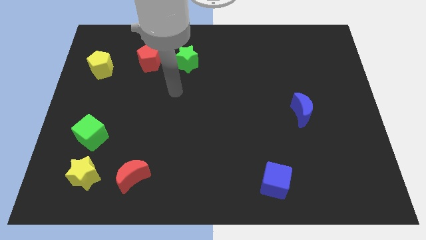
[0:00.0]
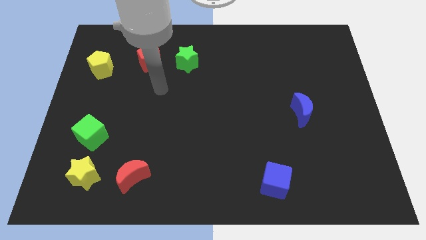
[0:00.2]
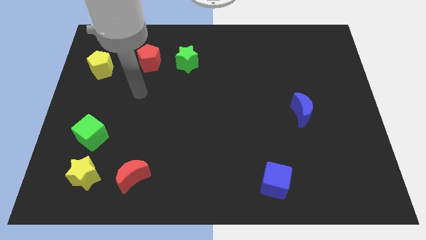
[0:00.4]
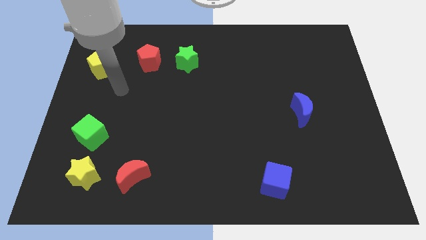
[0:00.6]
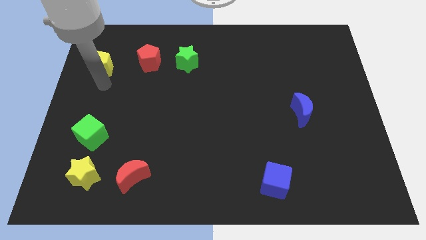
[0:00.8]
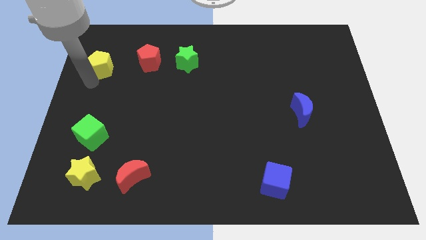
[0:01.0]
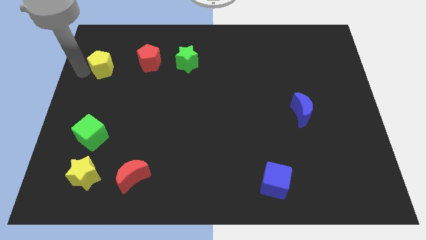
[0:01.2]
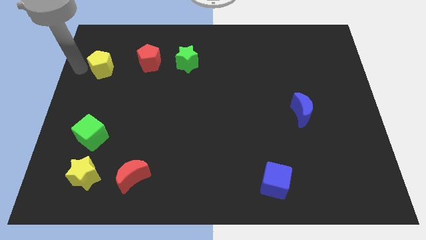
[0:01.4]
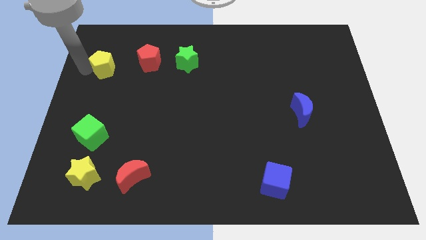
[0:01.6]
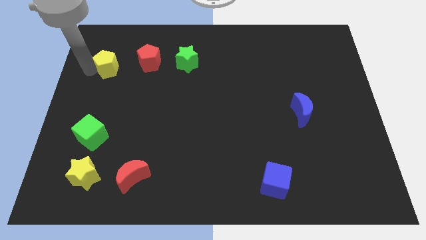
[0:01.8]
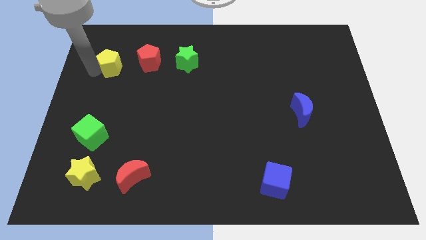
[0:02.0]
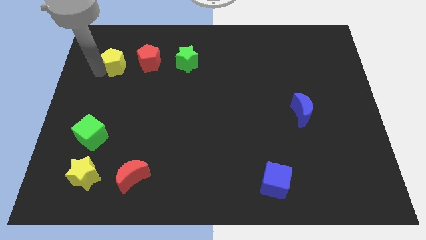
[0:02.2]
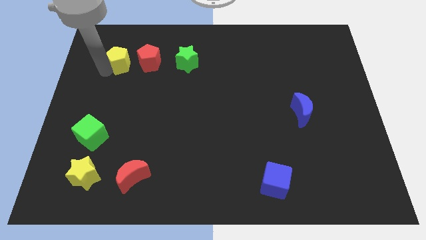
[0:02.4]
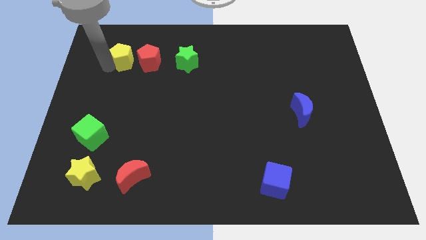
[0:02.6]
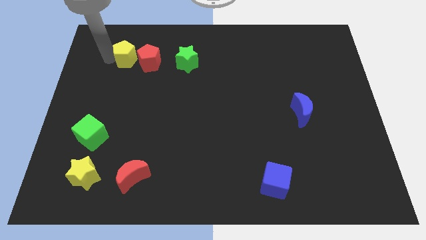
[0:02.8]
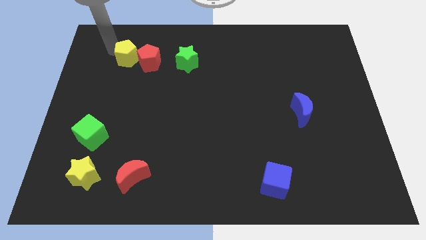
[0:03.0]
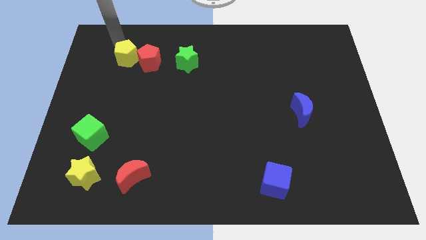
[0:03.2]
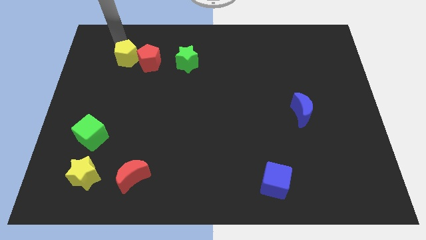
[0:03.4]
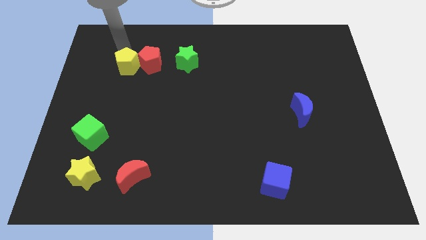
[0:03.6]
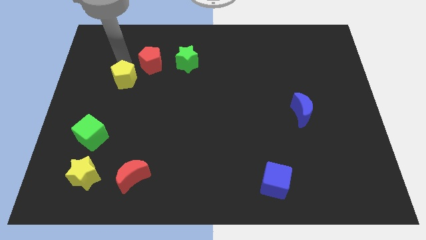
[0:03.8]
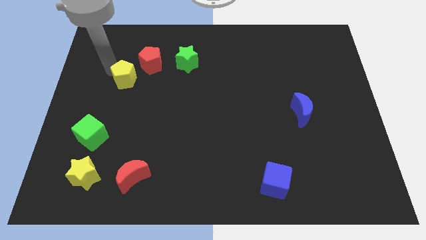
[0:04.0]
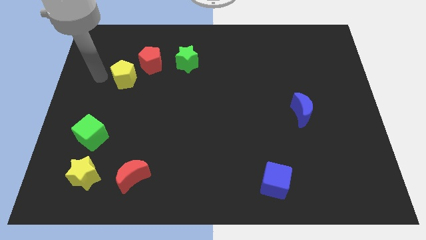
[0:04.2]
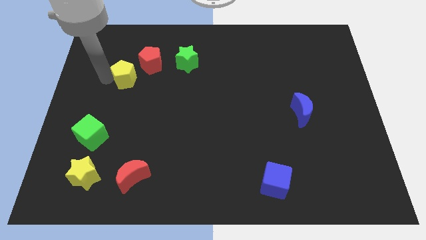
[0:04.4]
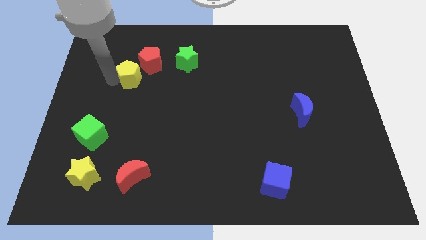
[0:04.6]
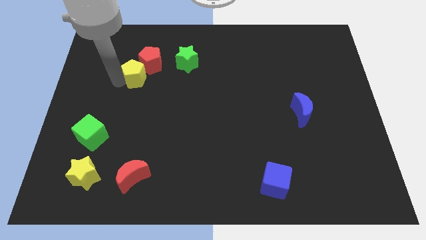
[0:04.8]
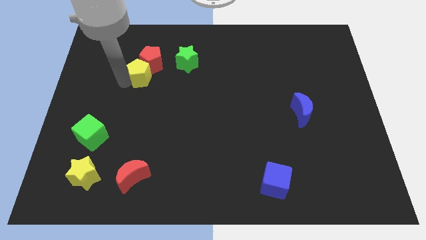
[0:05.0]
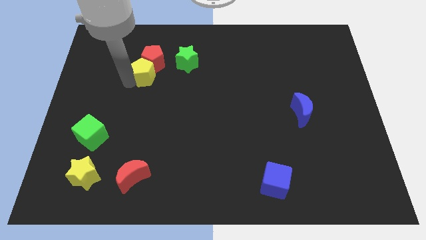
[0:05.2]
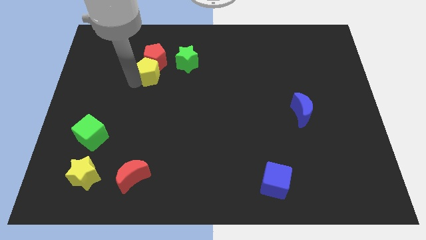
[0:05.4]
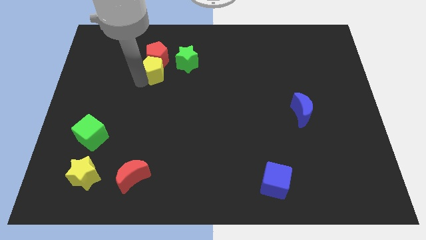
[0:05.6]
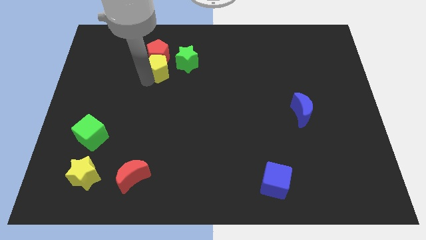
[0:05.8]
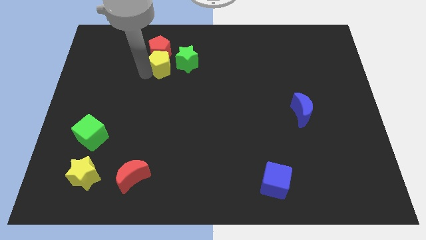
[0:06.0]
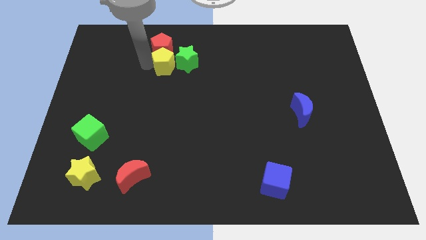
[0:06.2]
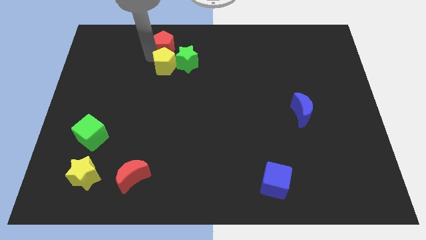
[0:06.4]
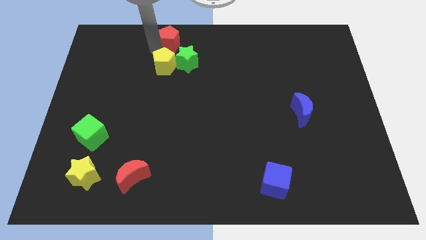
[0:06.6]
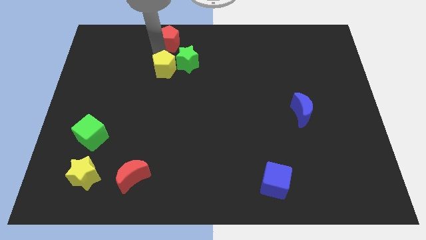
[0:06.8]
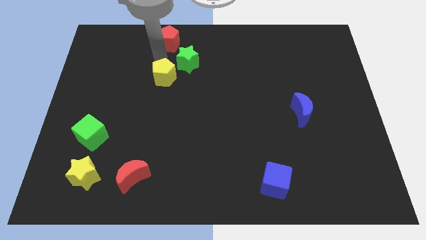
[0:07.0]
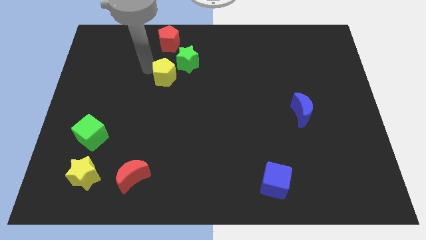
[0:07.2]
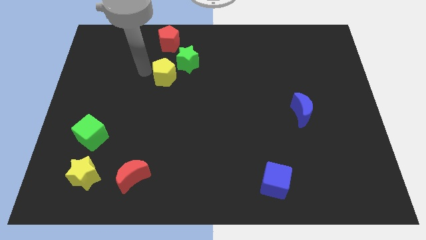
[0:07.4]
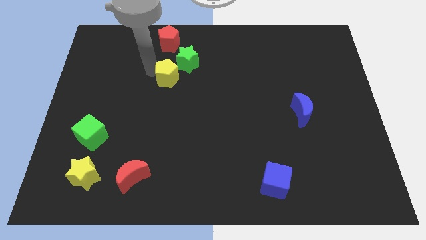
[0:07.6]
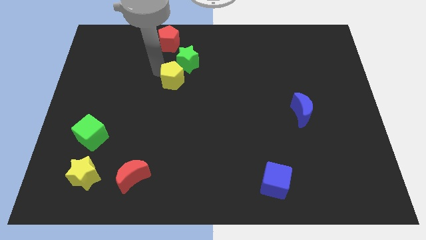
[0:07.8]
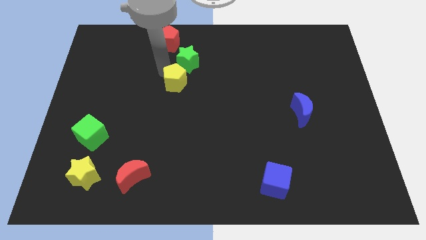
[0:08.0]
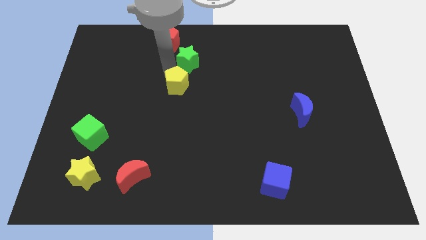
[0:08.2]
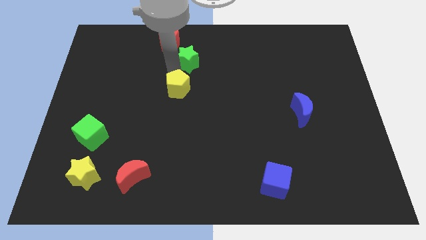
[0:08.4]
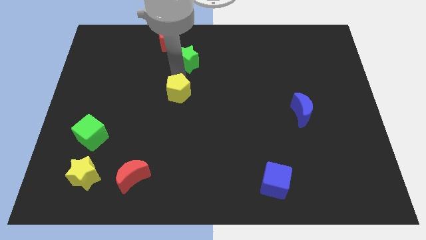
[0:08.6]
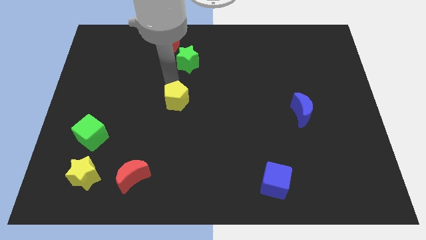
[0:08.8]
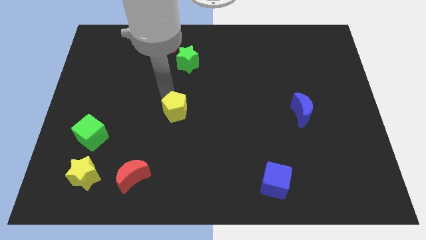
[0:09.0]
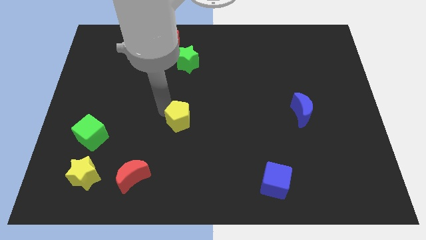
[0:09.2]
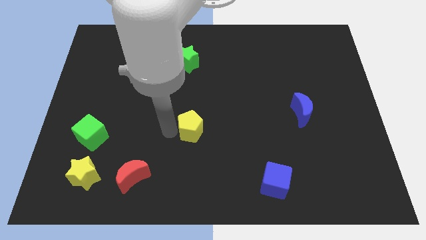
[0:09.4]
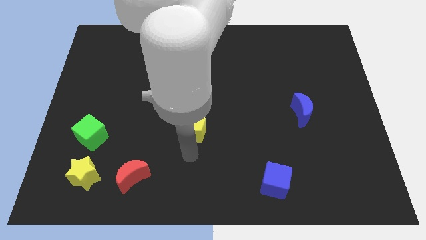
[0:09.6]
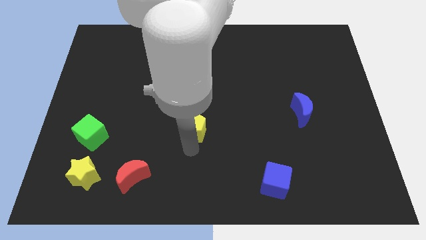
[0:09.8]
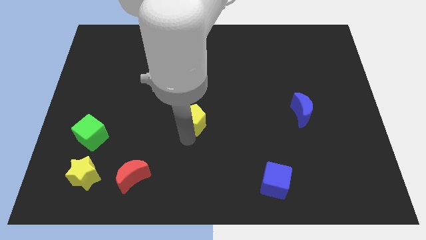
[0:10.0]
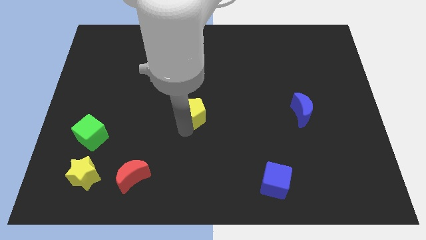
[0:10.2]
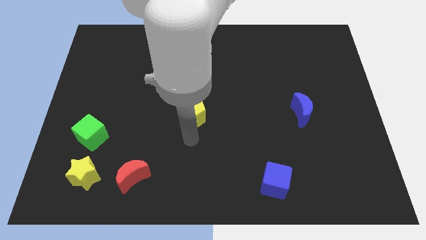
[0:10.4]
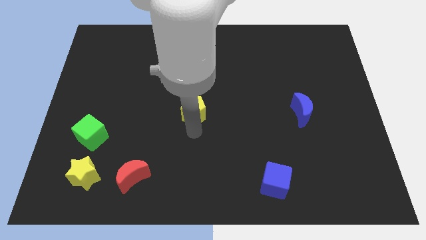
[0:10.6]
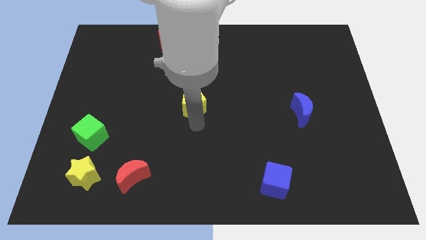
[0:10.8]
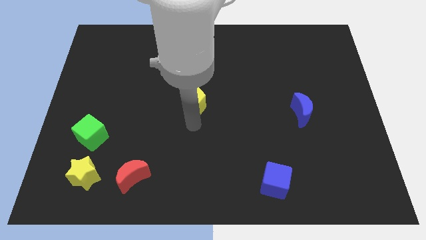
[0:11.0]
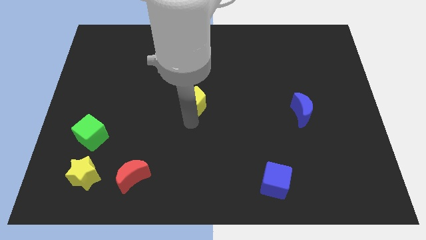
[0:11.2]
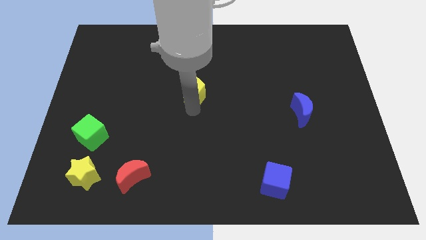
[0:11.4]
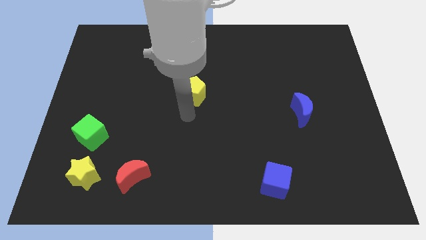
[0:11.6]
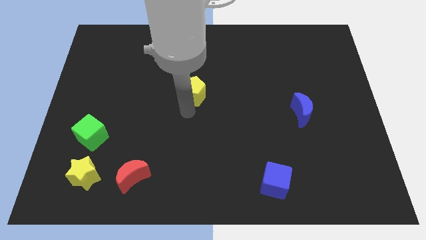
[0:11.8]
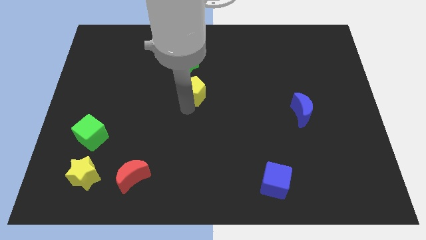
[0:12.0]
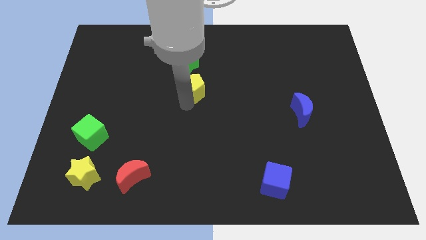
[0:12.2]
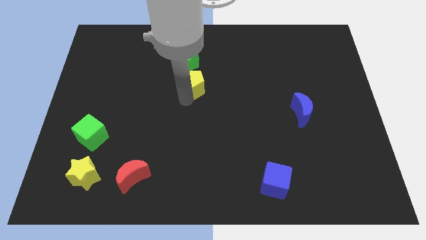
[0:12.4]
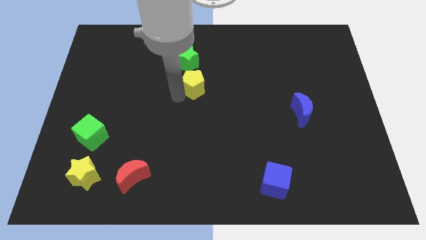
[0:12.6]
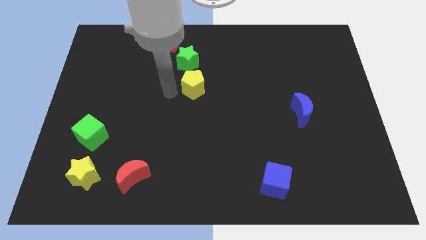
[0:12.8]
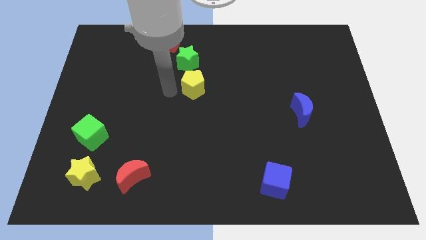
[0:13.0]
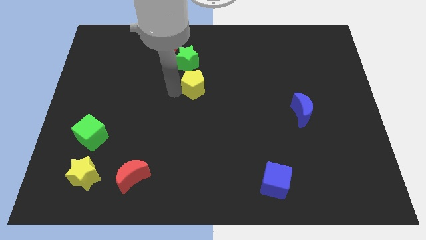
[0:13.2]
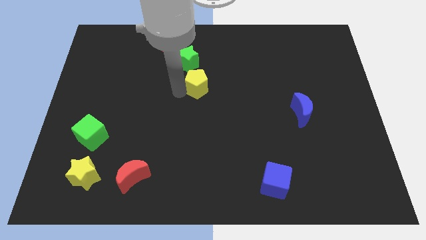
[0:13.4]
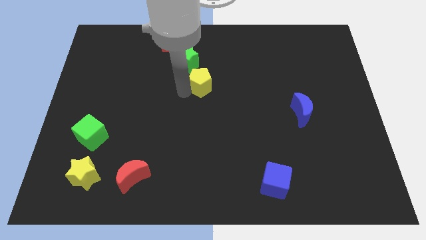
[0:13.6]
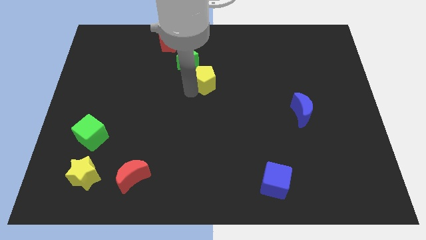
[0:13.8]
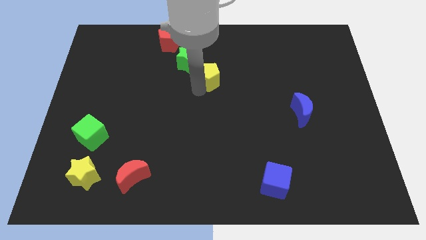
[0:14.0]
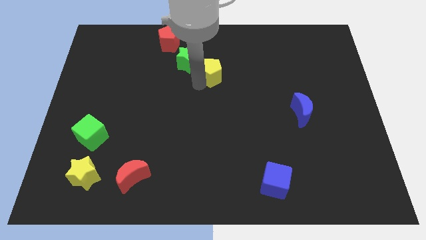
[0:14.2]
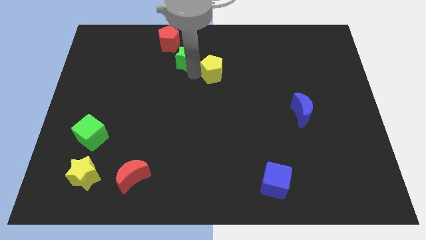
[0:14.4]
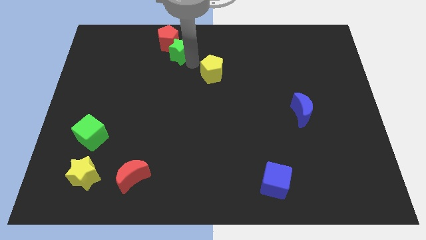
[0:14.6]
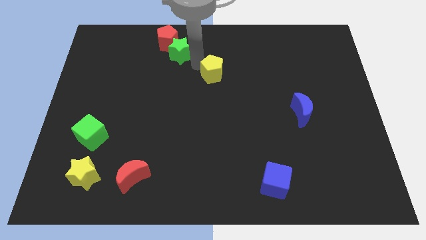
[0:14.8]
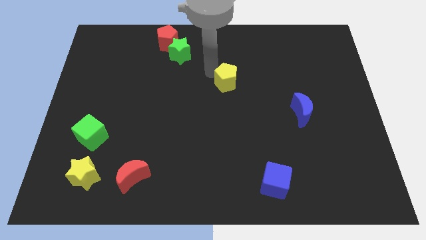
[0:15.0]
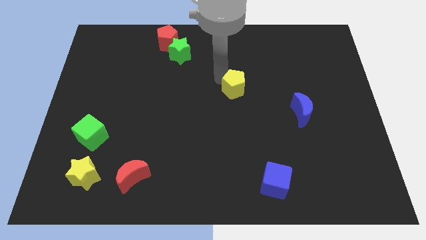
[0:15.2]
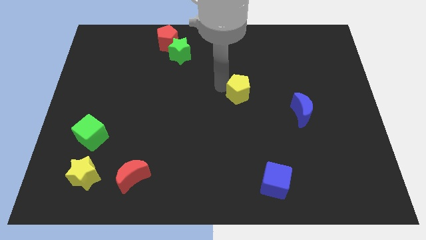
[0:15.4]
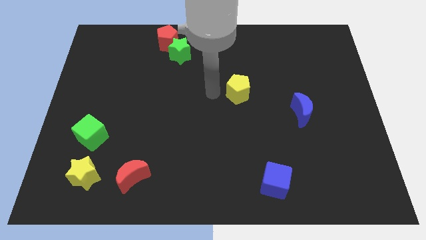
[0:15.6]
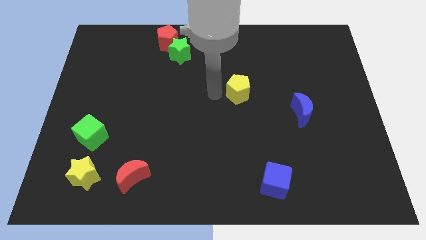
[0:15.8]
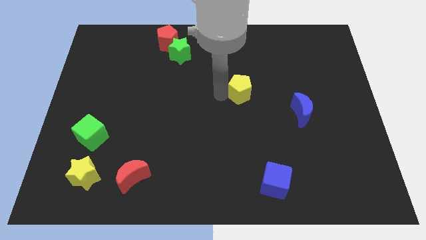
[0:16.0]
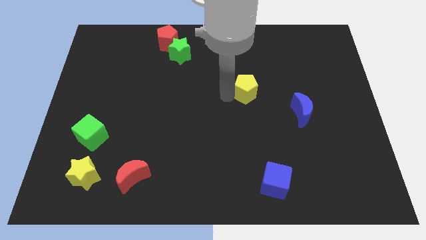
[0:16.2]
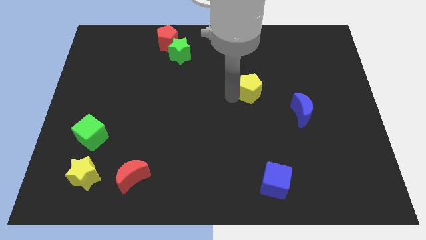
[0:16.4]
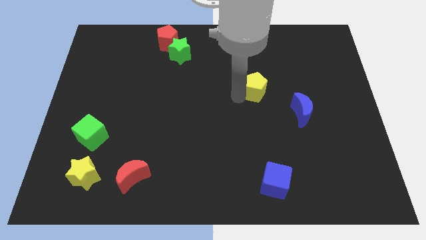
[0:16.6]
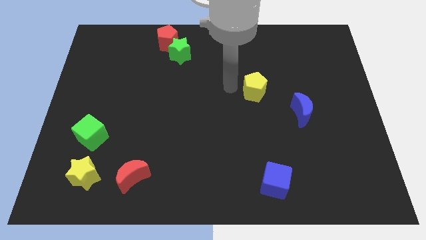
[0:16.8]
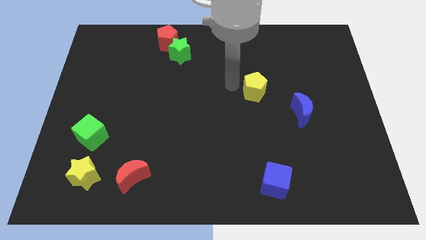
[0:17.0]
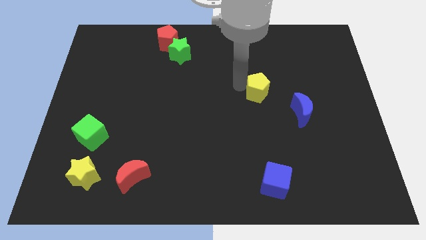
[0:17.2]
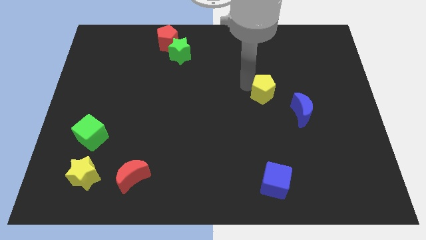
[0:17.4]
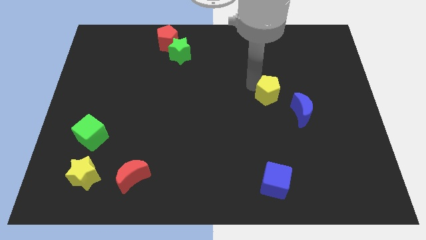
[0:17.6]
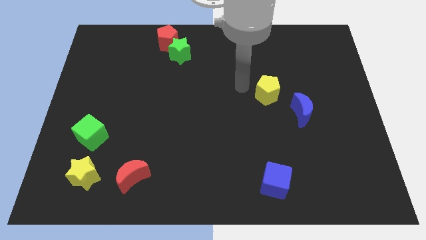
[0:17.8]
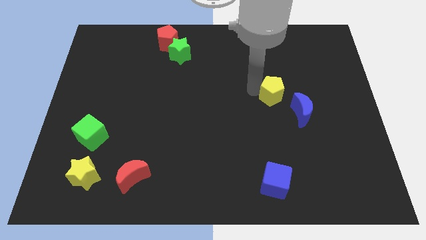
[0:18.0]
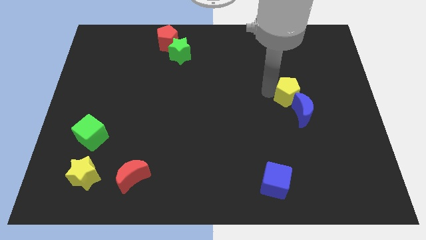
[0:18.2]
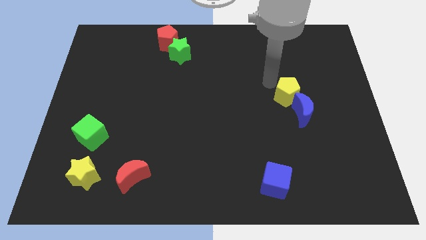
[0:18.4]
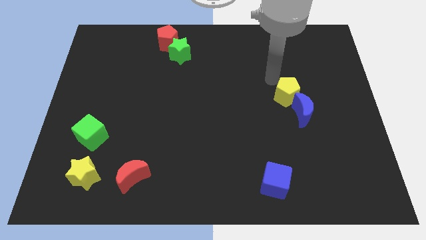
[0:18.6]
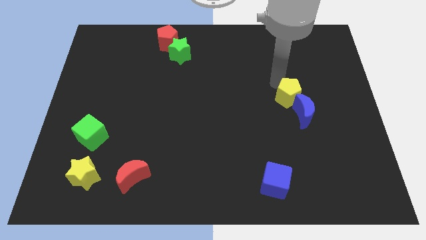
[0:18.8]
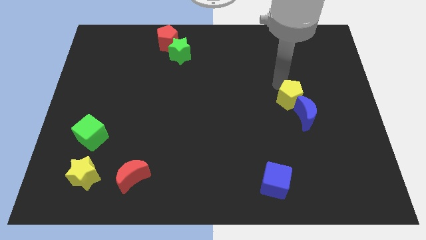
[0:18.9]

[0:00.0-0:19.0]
slide the yellow pentagon close to the blue moon
